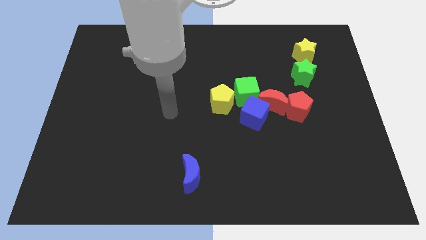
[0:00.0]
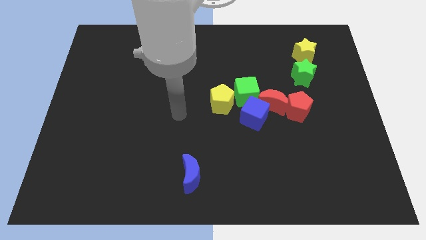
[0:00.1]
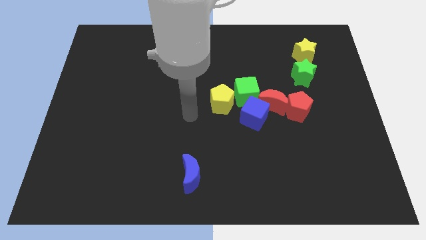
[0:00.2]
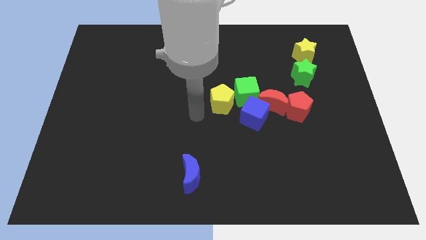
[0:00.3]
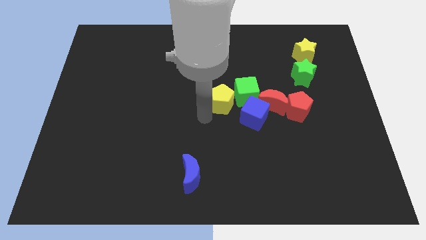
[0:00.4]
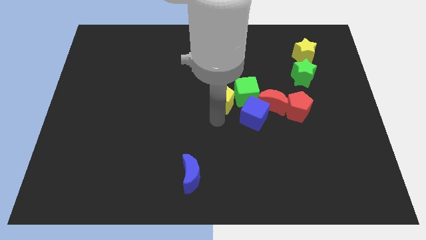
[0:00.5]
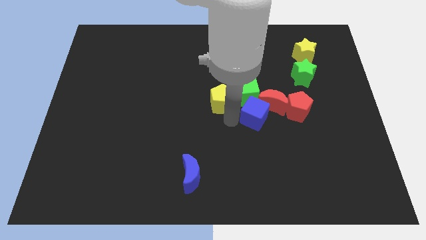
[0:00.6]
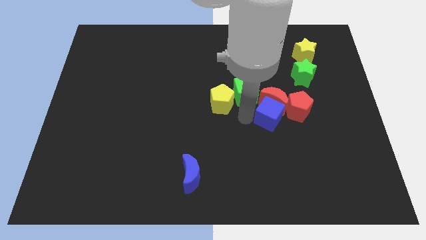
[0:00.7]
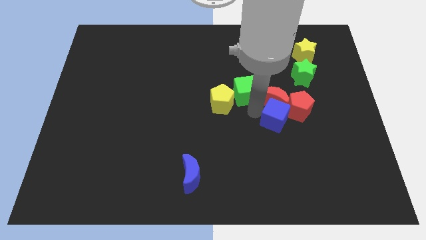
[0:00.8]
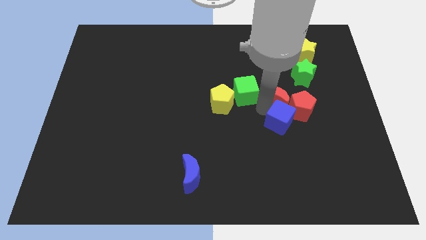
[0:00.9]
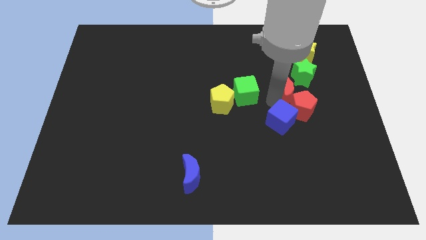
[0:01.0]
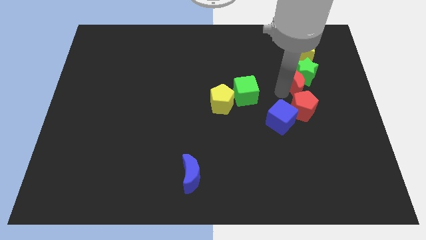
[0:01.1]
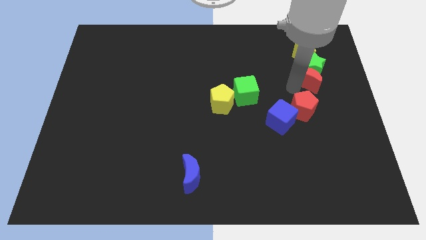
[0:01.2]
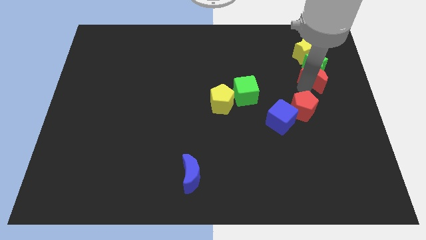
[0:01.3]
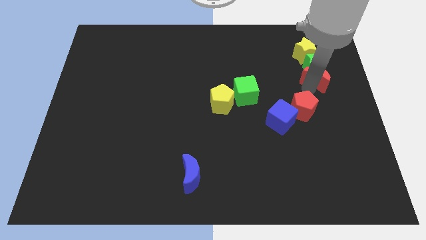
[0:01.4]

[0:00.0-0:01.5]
separate the red pentagon from the red moon

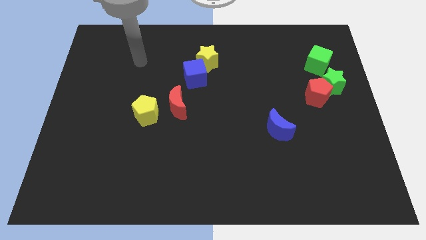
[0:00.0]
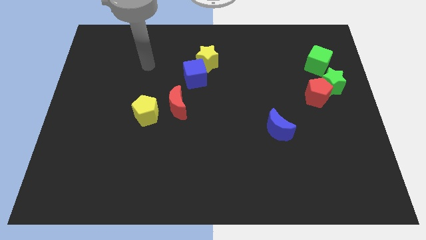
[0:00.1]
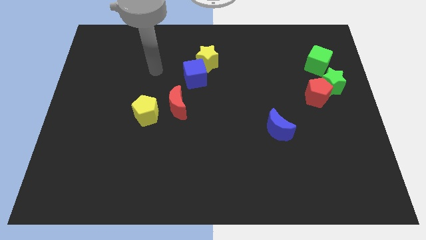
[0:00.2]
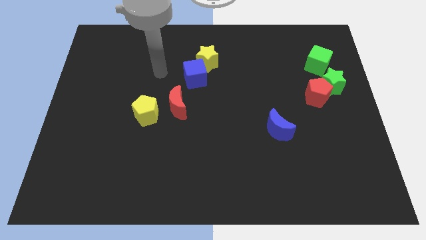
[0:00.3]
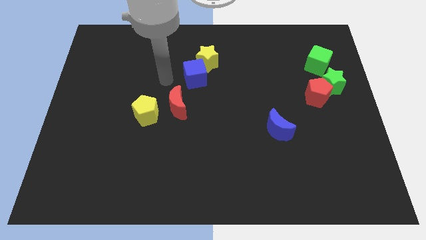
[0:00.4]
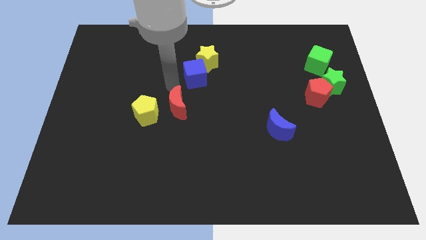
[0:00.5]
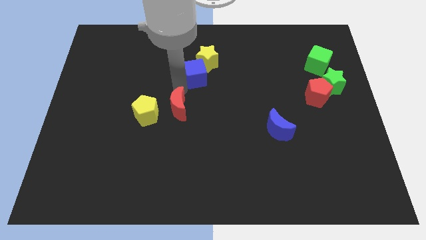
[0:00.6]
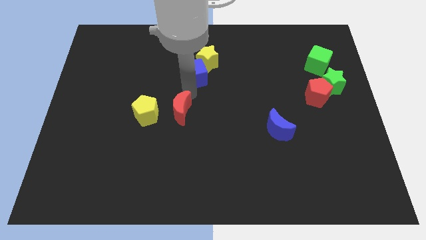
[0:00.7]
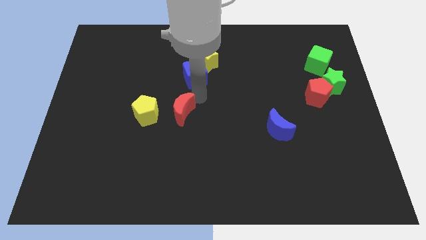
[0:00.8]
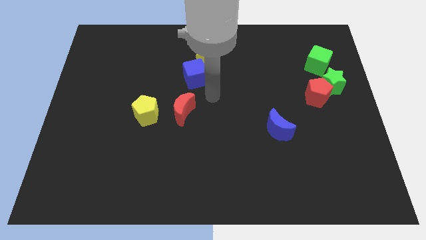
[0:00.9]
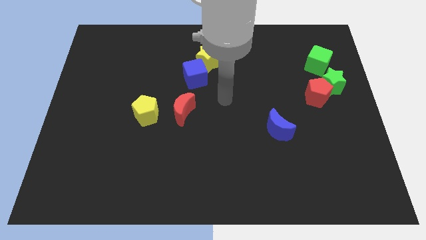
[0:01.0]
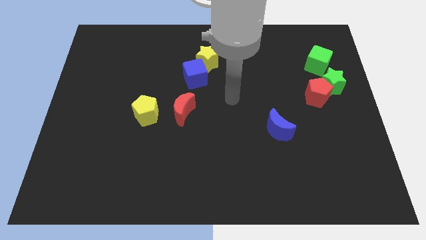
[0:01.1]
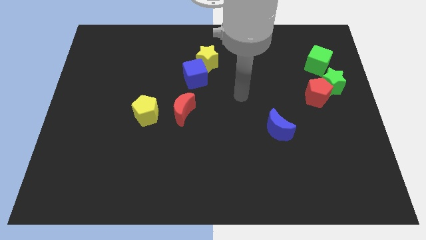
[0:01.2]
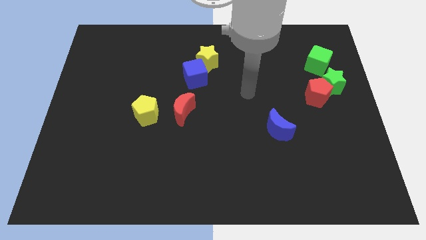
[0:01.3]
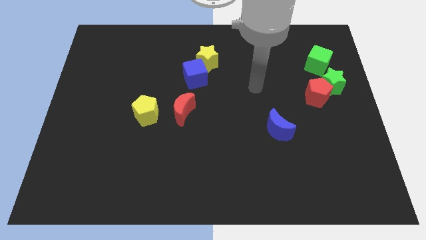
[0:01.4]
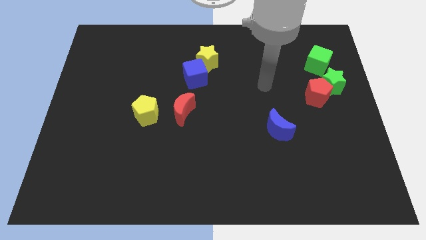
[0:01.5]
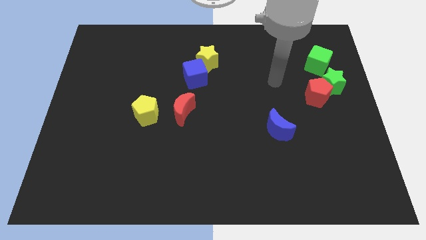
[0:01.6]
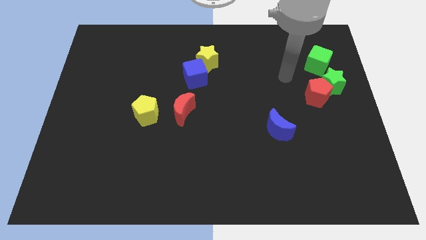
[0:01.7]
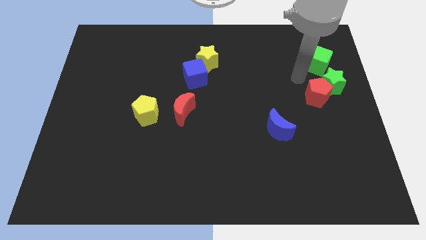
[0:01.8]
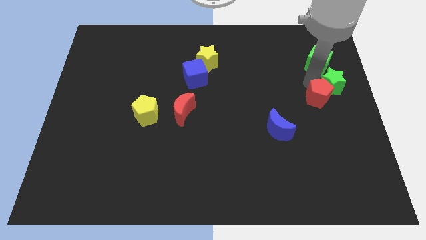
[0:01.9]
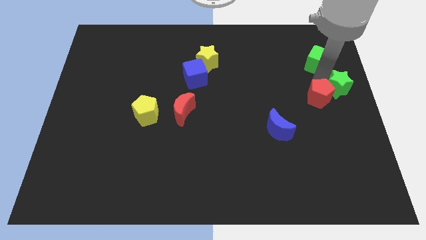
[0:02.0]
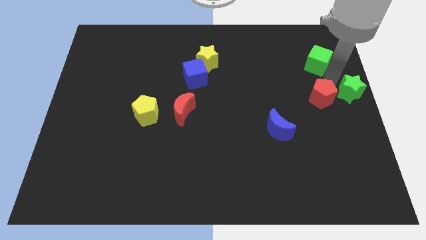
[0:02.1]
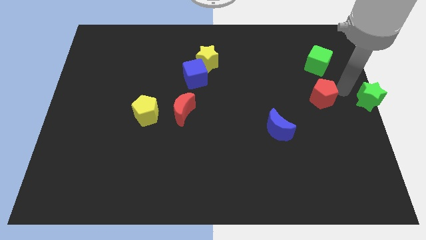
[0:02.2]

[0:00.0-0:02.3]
pull the red pentagon apart from the green star

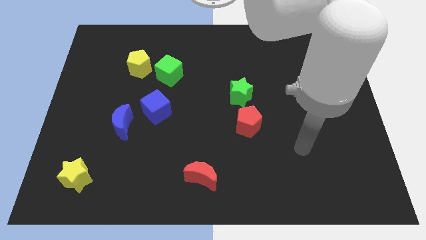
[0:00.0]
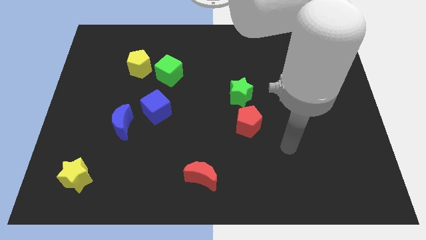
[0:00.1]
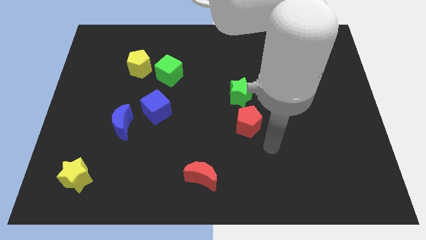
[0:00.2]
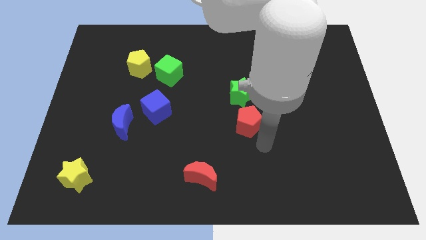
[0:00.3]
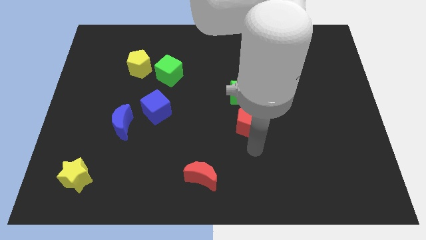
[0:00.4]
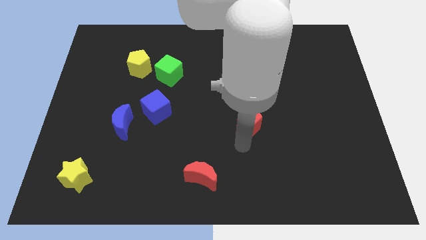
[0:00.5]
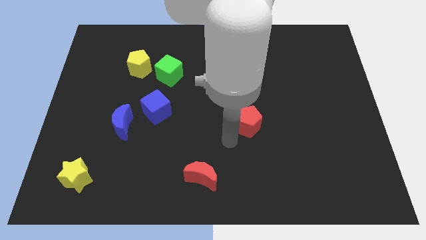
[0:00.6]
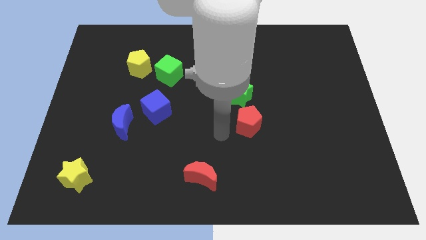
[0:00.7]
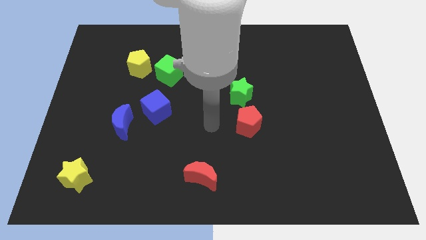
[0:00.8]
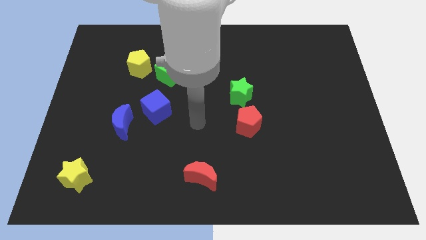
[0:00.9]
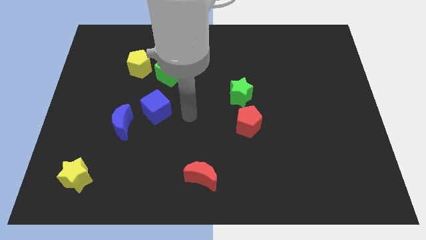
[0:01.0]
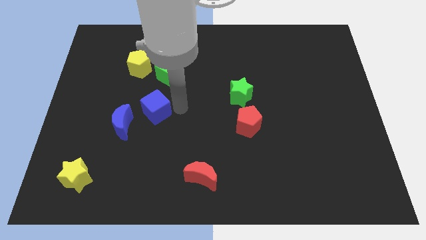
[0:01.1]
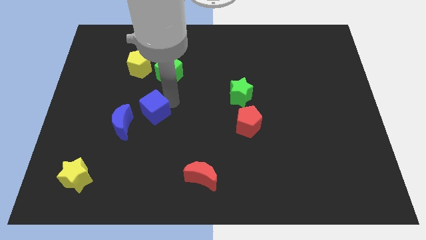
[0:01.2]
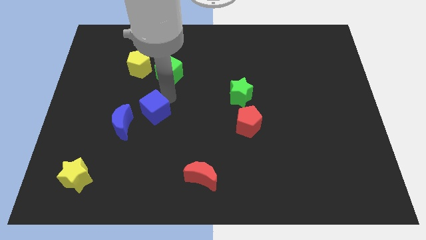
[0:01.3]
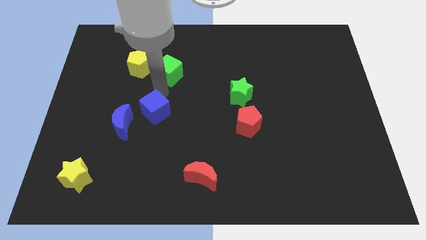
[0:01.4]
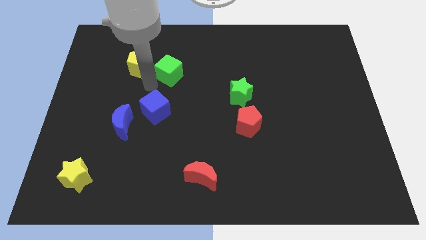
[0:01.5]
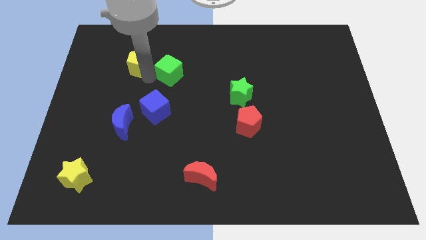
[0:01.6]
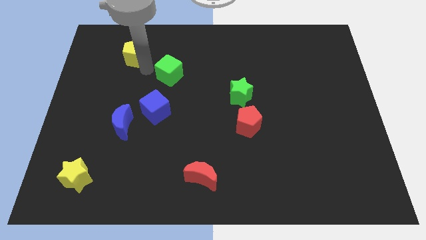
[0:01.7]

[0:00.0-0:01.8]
pull the green cube apart from the yellow pentagon

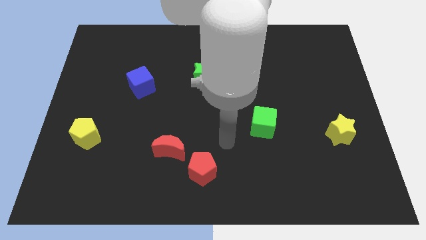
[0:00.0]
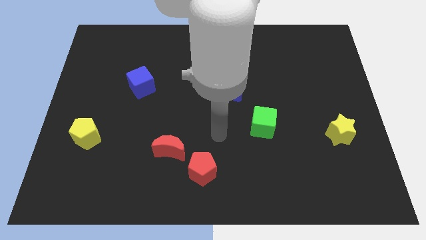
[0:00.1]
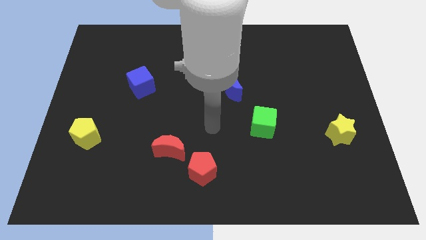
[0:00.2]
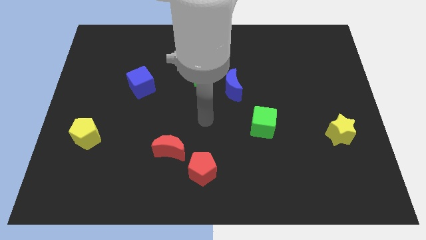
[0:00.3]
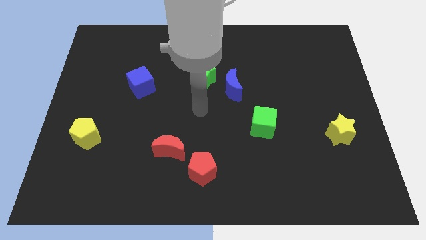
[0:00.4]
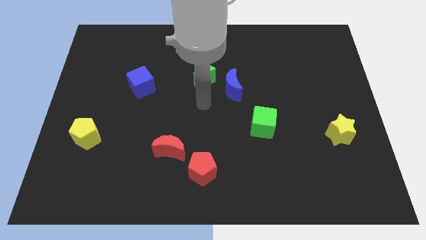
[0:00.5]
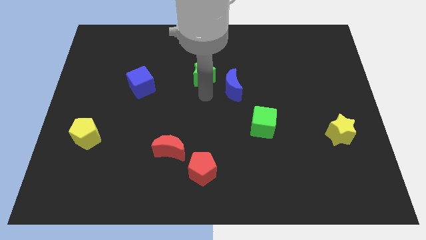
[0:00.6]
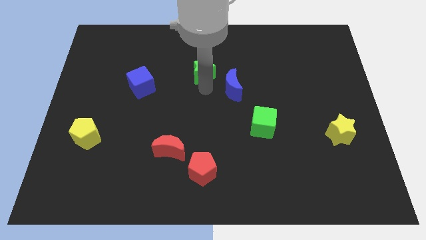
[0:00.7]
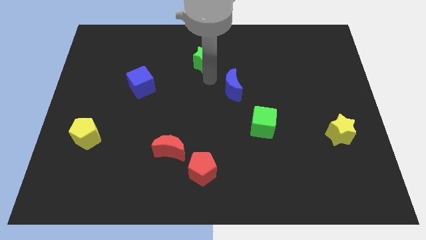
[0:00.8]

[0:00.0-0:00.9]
move the blue moon away from the green star

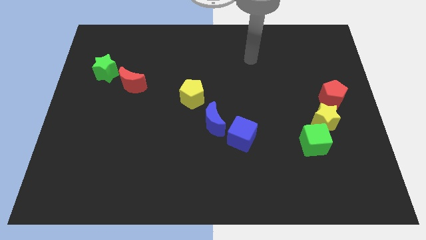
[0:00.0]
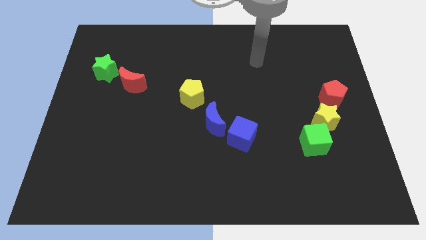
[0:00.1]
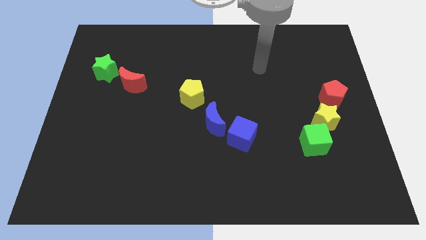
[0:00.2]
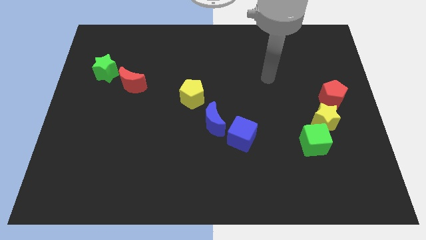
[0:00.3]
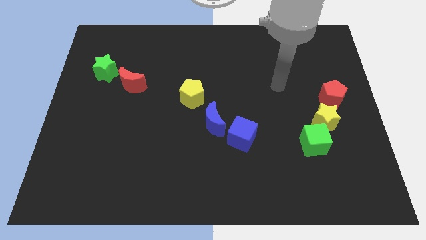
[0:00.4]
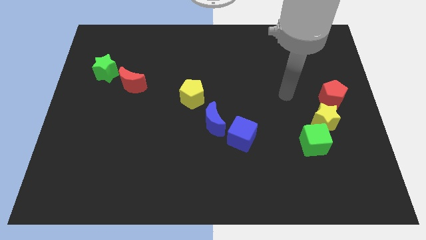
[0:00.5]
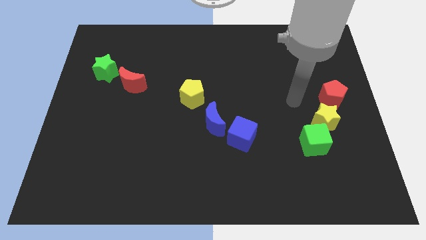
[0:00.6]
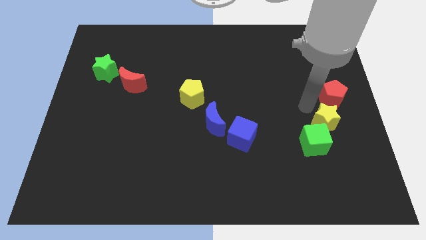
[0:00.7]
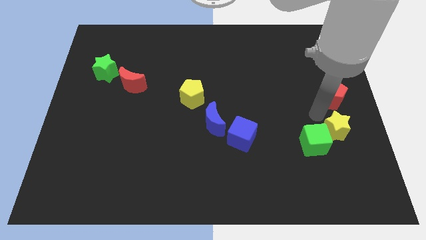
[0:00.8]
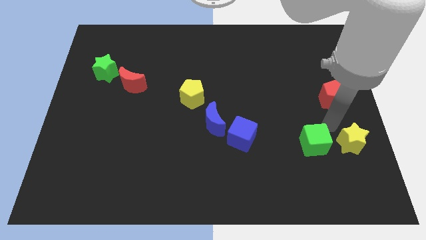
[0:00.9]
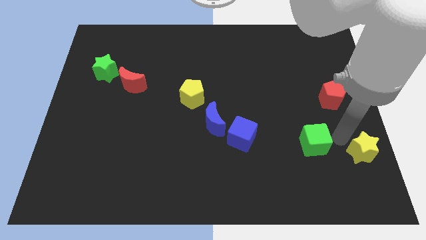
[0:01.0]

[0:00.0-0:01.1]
separate the green cube from the yellow star

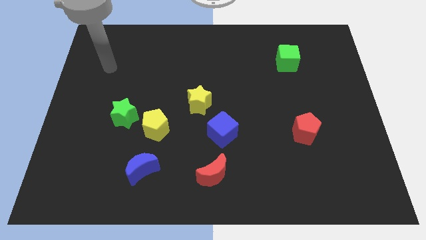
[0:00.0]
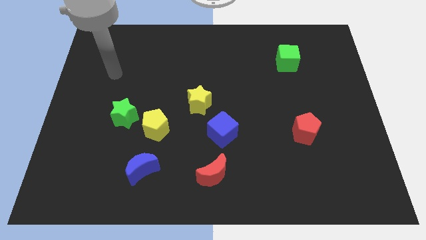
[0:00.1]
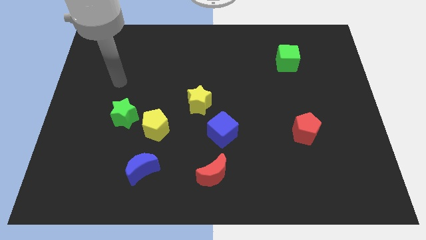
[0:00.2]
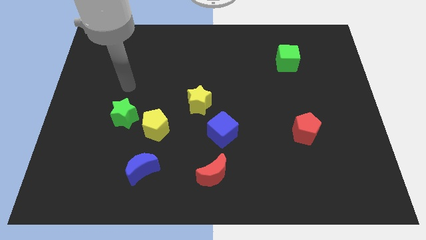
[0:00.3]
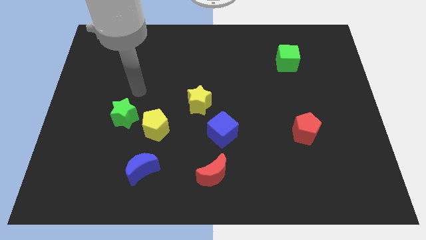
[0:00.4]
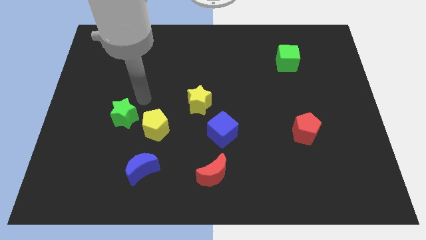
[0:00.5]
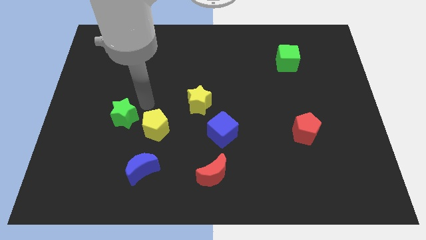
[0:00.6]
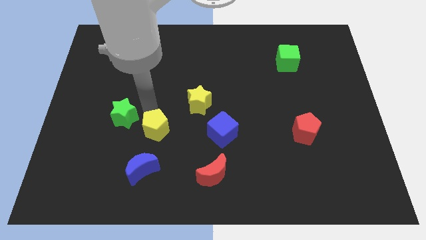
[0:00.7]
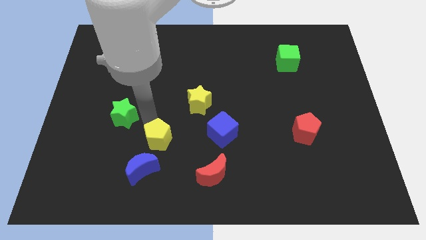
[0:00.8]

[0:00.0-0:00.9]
move the green star away from the yellow pentagon

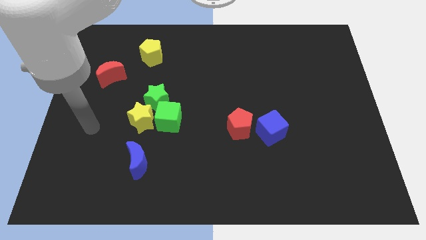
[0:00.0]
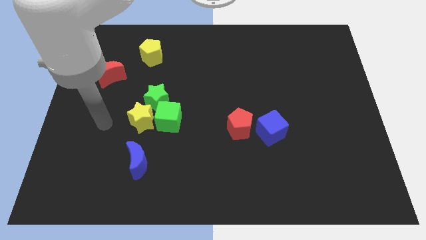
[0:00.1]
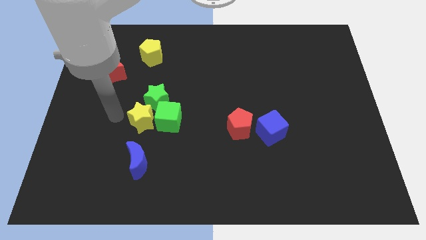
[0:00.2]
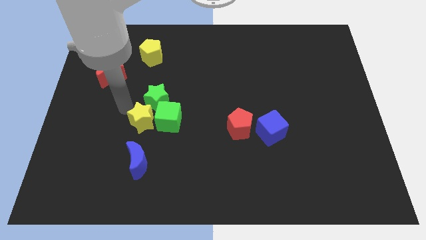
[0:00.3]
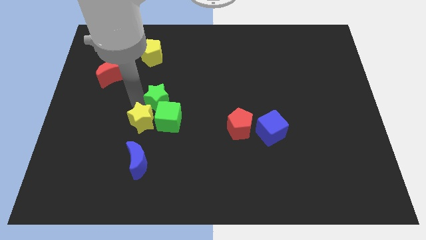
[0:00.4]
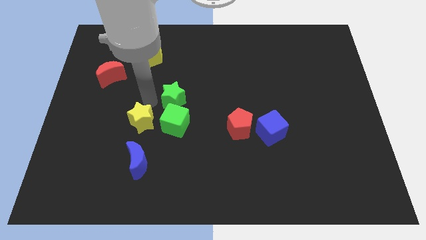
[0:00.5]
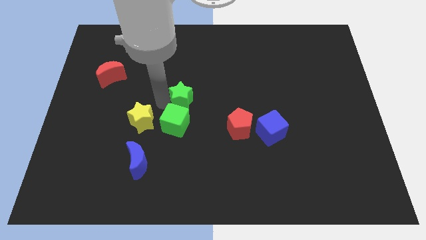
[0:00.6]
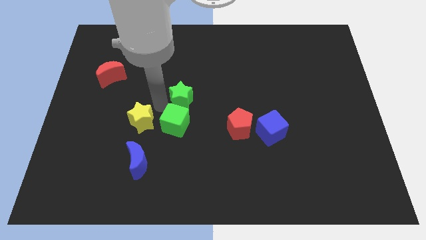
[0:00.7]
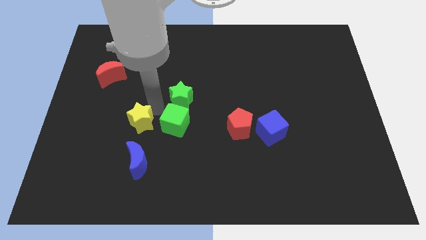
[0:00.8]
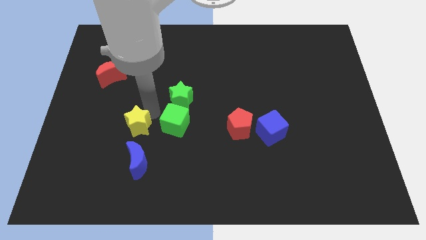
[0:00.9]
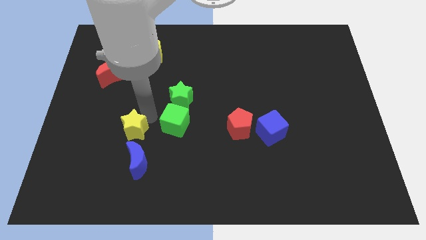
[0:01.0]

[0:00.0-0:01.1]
move the yellow star away from the green cube and green star
